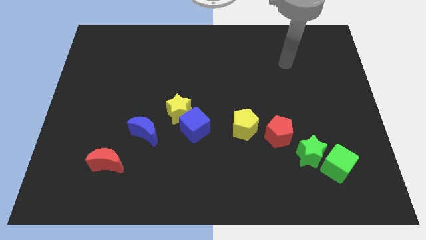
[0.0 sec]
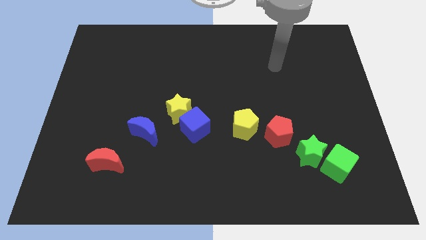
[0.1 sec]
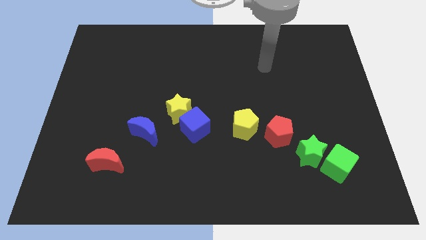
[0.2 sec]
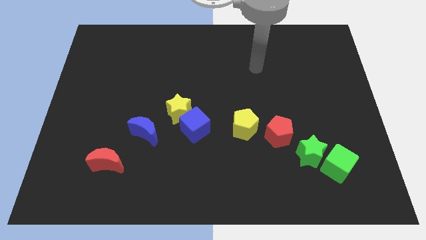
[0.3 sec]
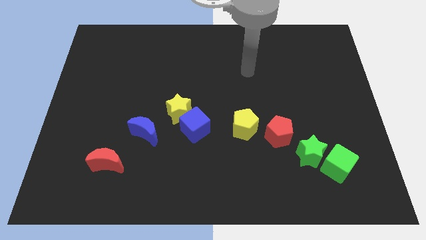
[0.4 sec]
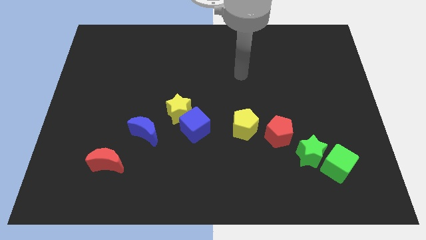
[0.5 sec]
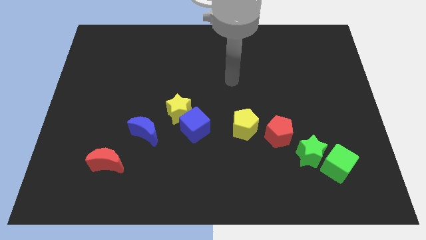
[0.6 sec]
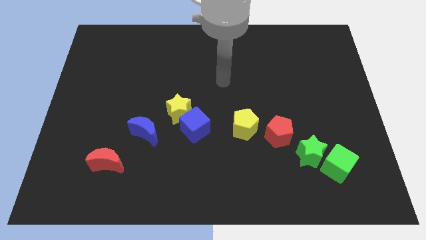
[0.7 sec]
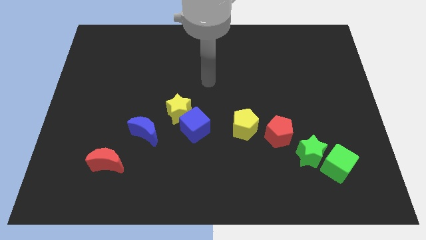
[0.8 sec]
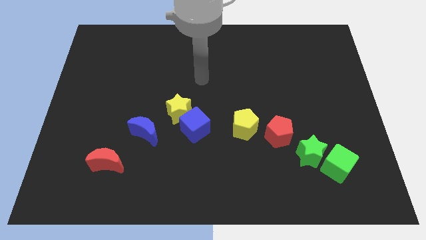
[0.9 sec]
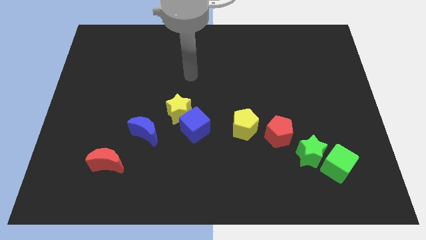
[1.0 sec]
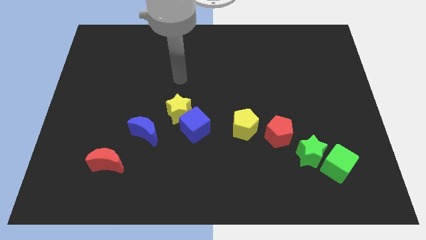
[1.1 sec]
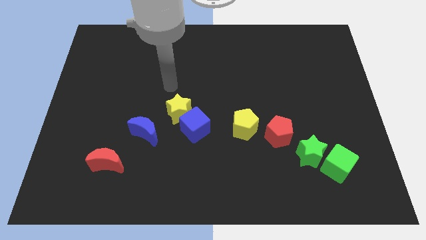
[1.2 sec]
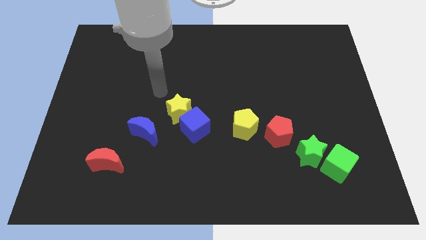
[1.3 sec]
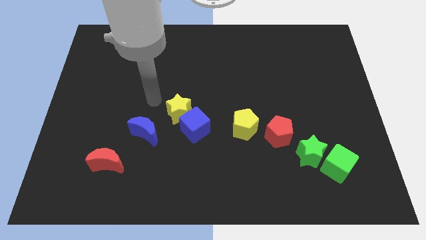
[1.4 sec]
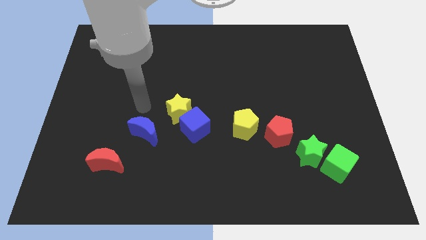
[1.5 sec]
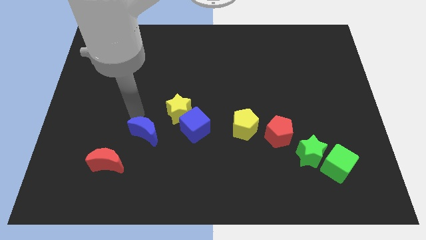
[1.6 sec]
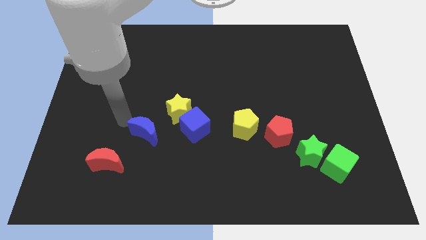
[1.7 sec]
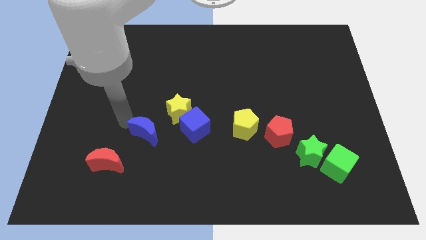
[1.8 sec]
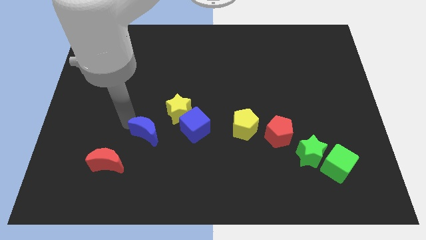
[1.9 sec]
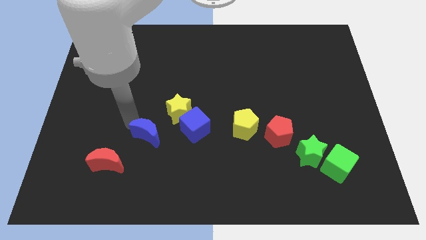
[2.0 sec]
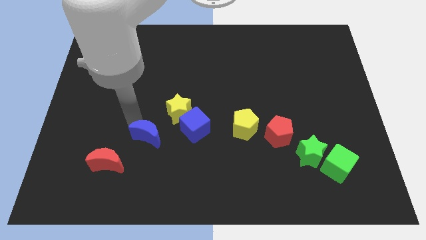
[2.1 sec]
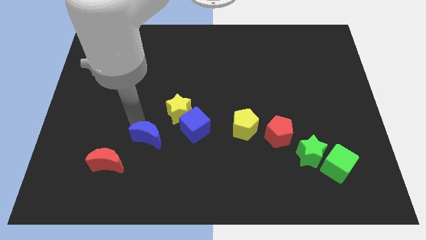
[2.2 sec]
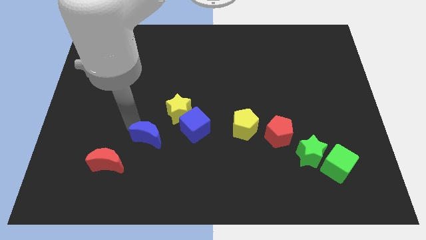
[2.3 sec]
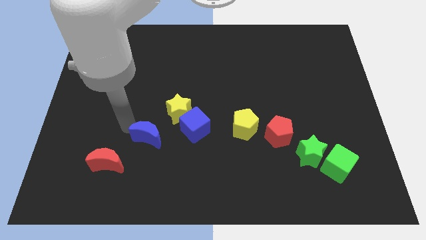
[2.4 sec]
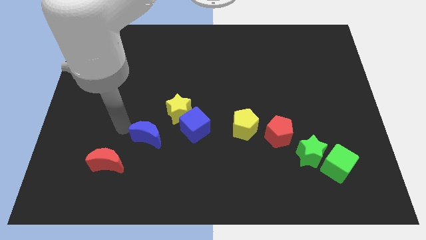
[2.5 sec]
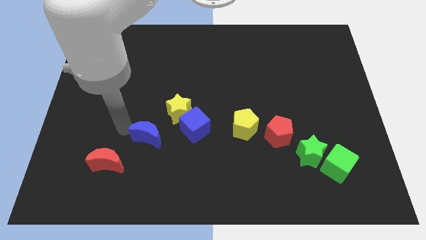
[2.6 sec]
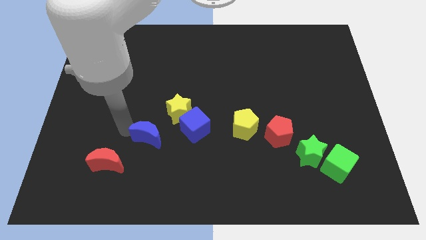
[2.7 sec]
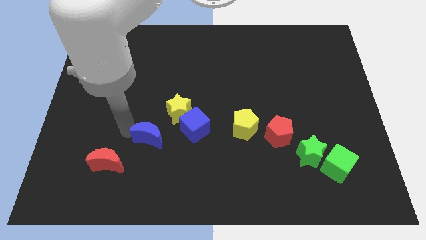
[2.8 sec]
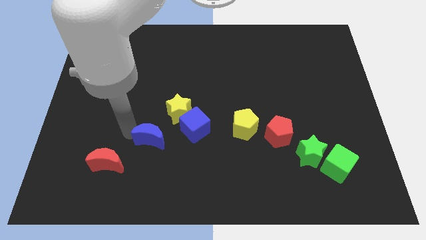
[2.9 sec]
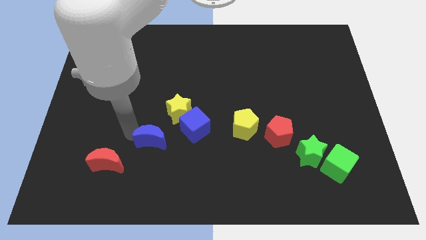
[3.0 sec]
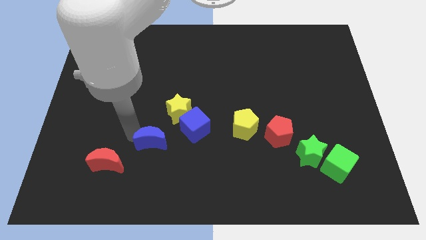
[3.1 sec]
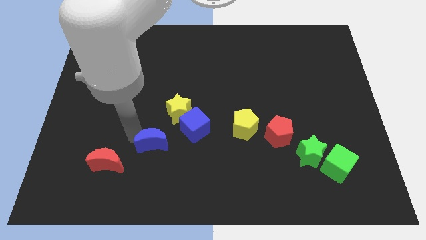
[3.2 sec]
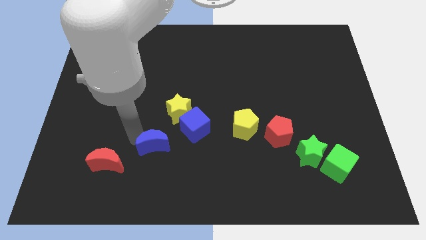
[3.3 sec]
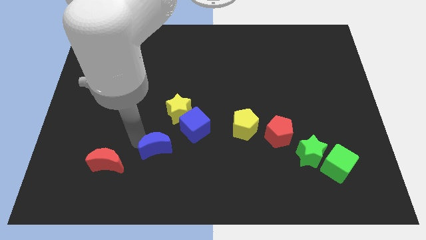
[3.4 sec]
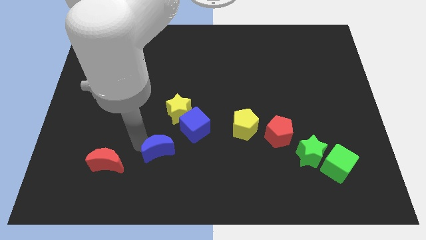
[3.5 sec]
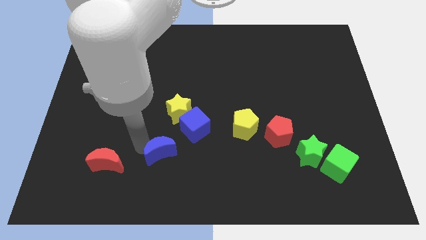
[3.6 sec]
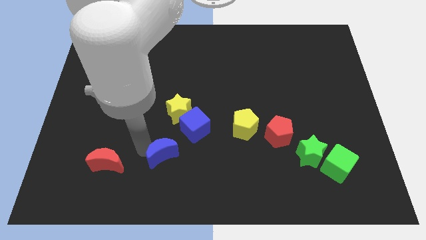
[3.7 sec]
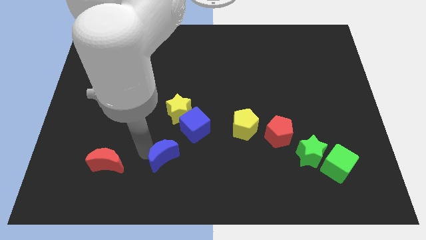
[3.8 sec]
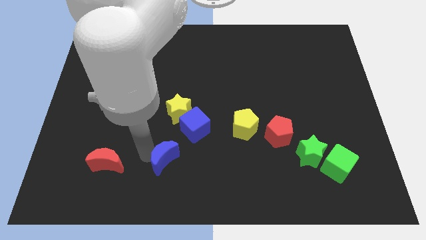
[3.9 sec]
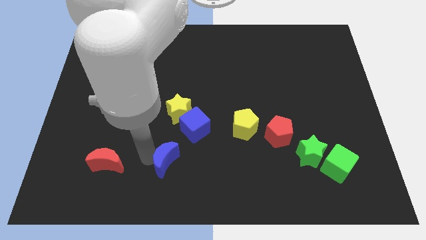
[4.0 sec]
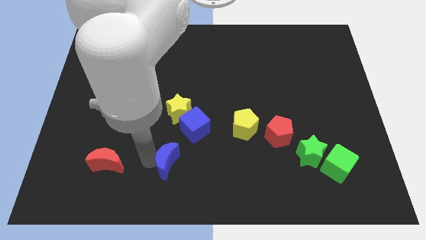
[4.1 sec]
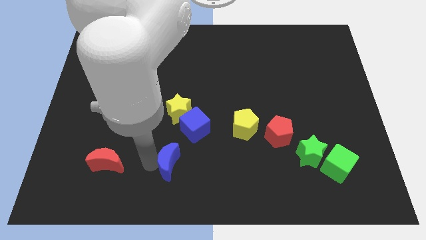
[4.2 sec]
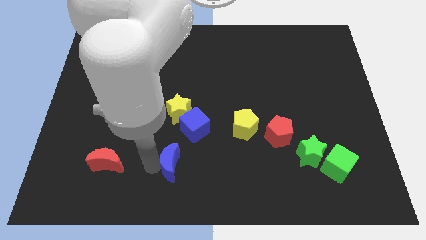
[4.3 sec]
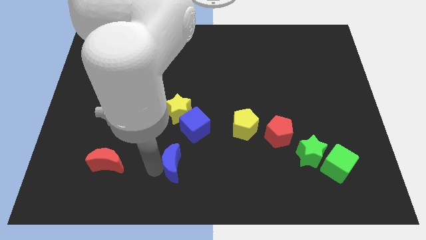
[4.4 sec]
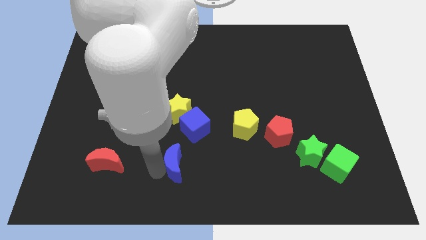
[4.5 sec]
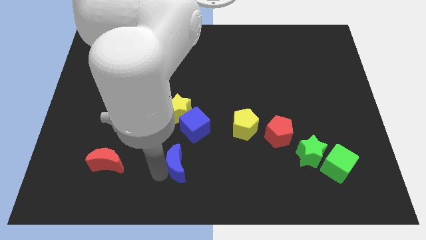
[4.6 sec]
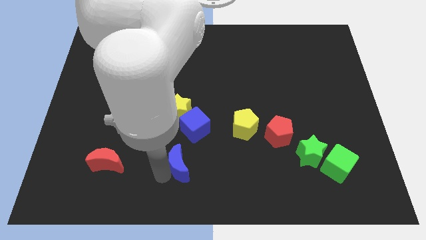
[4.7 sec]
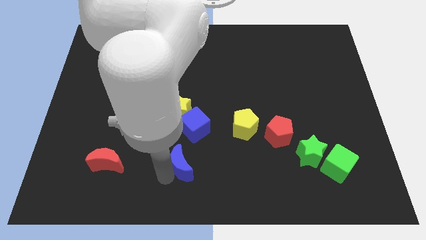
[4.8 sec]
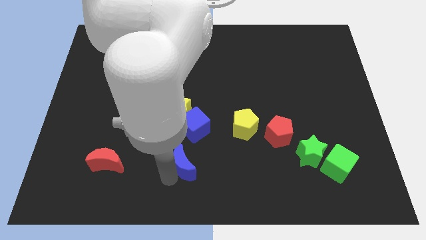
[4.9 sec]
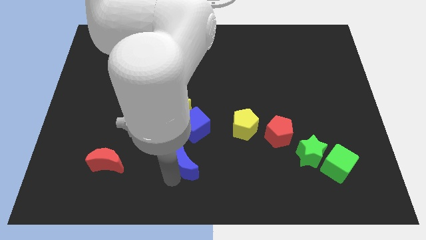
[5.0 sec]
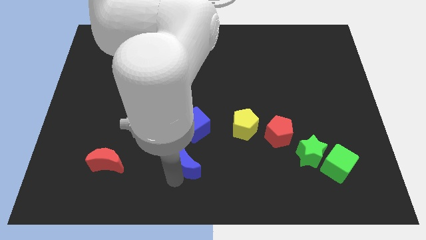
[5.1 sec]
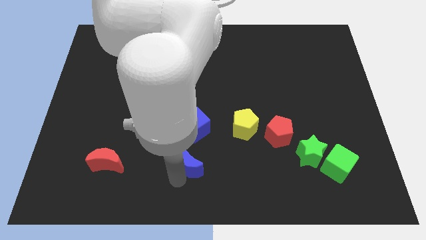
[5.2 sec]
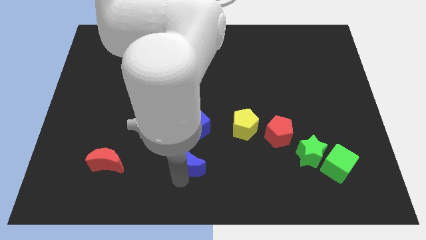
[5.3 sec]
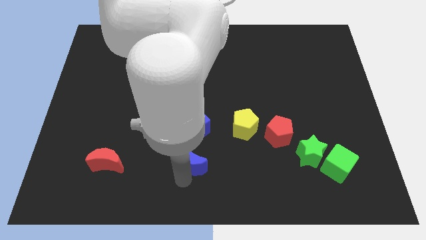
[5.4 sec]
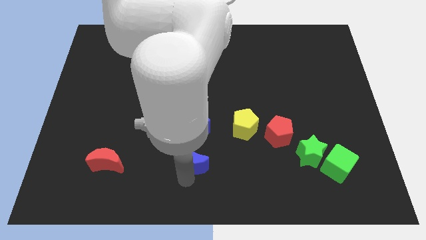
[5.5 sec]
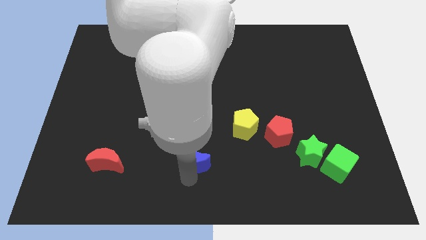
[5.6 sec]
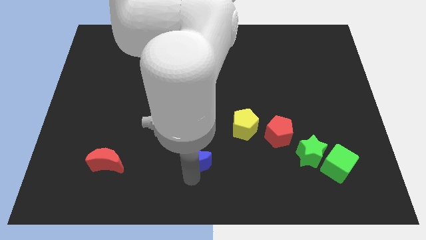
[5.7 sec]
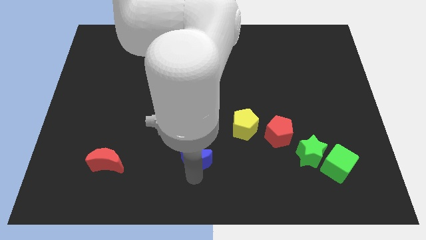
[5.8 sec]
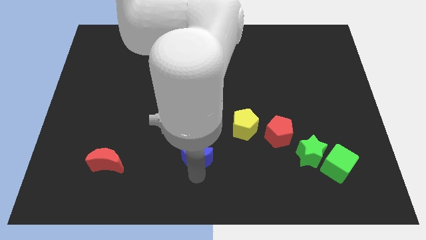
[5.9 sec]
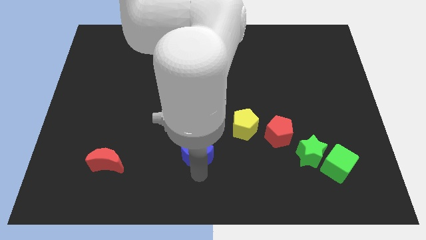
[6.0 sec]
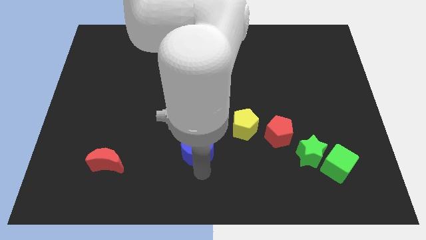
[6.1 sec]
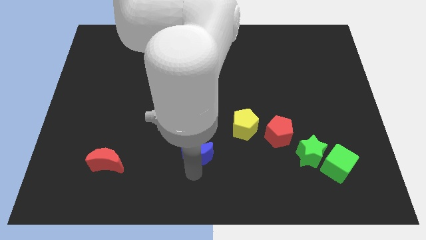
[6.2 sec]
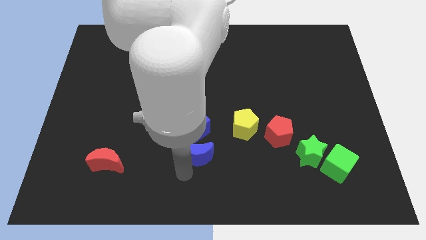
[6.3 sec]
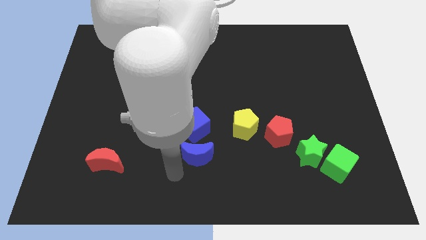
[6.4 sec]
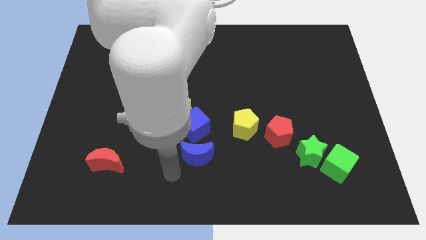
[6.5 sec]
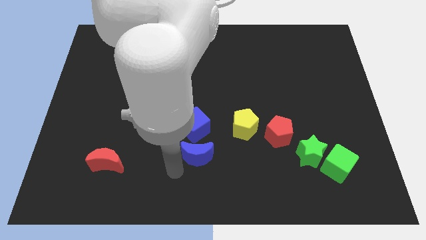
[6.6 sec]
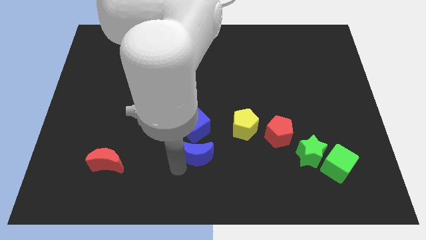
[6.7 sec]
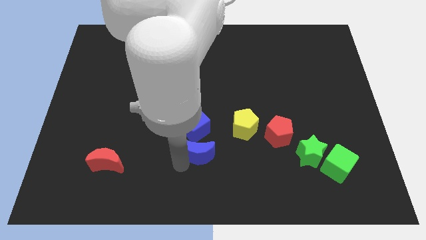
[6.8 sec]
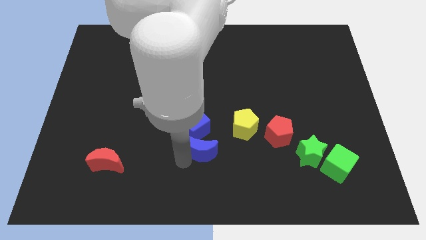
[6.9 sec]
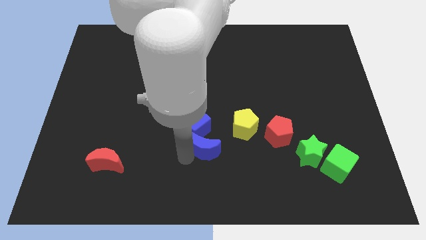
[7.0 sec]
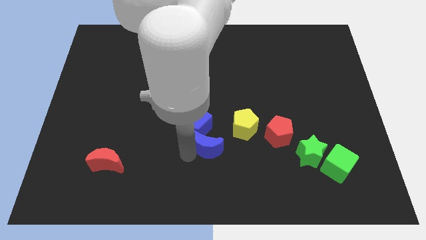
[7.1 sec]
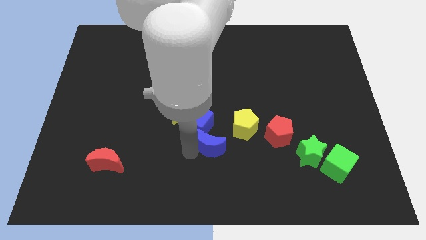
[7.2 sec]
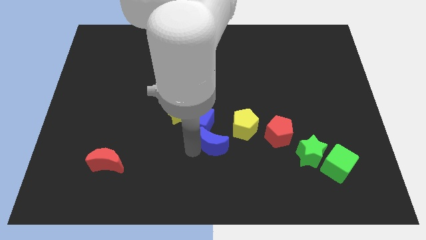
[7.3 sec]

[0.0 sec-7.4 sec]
slide the blue moon to the left side of the red pentagon
